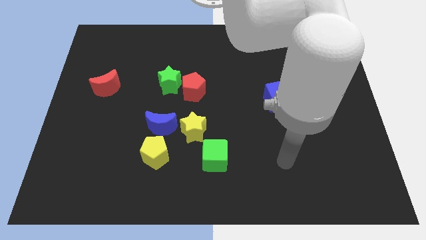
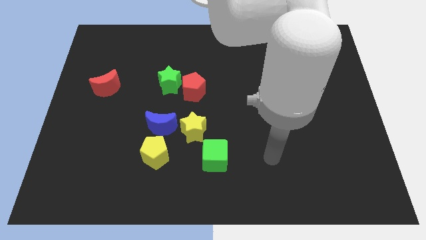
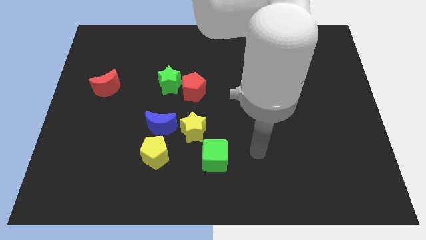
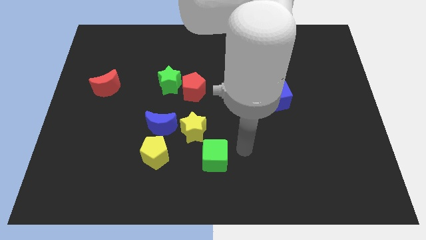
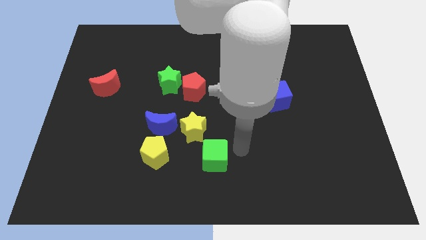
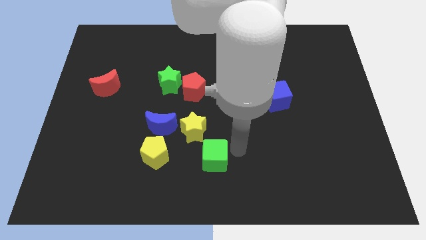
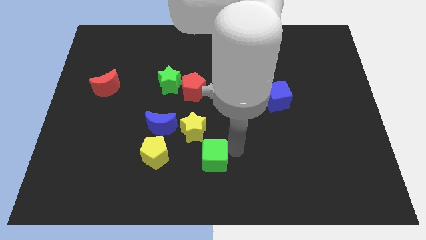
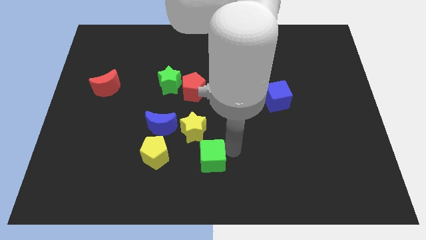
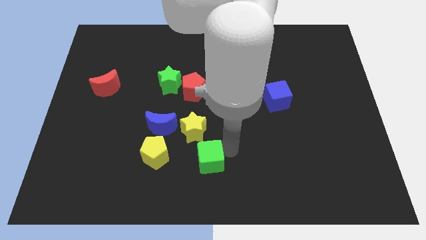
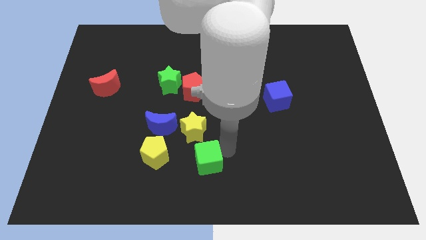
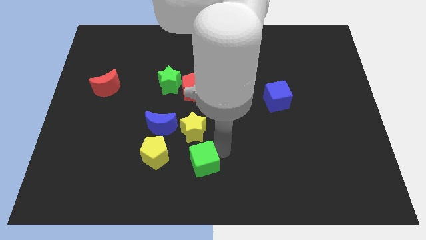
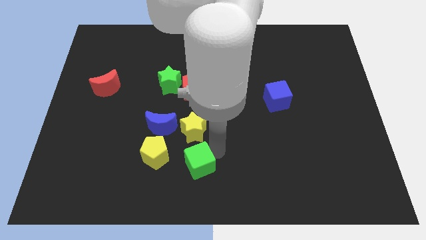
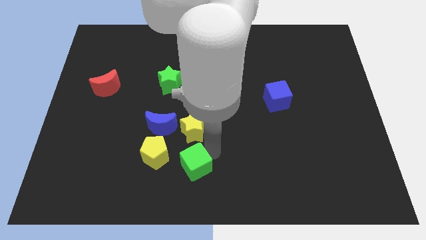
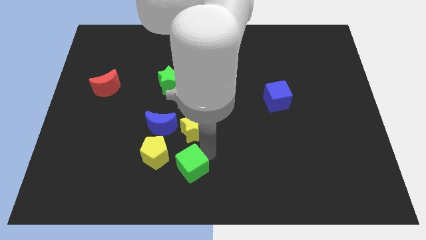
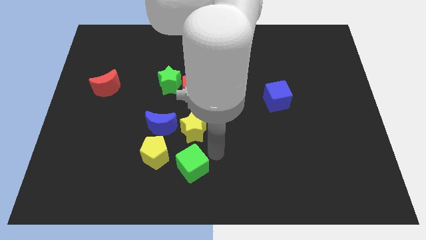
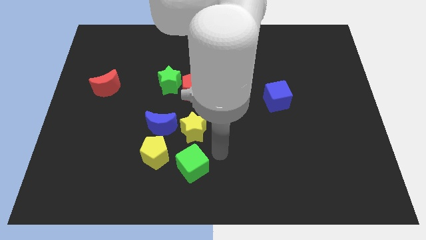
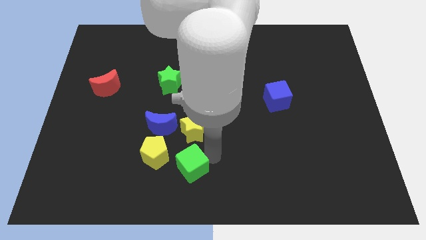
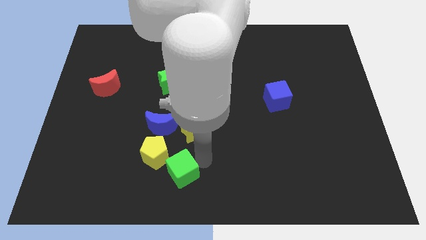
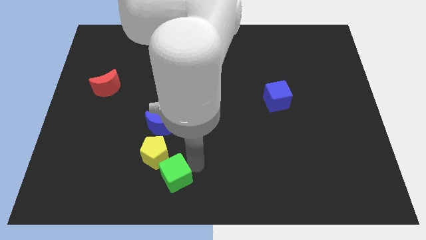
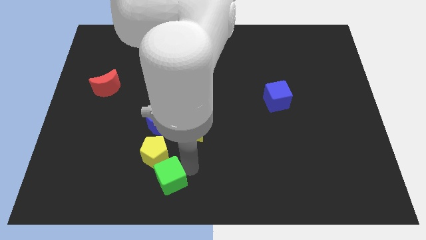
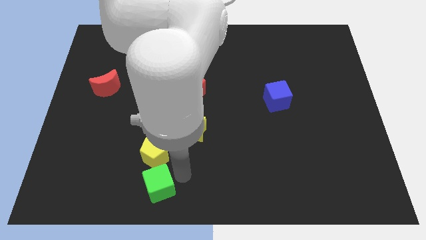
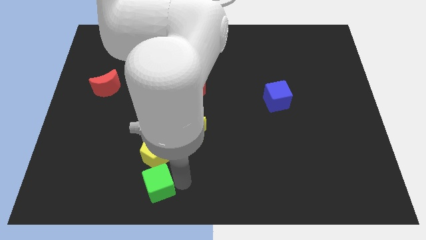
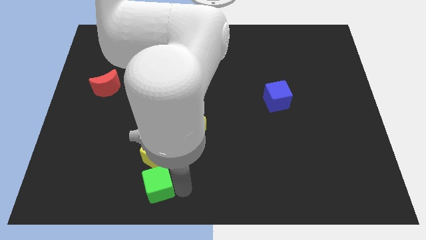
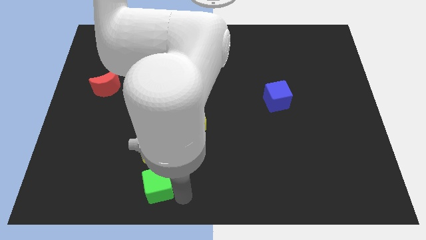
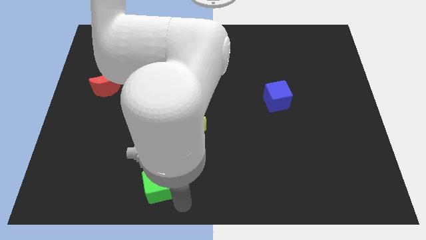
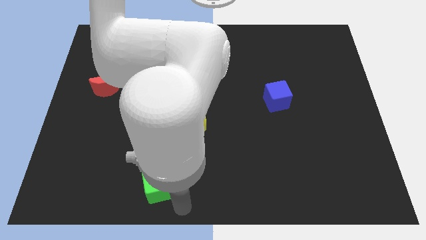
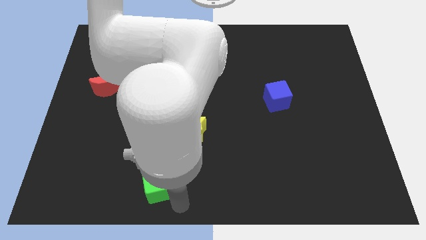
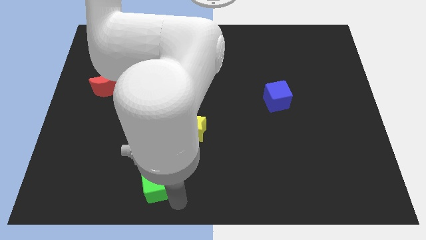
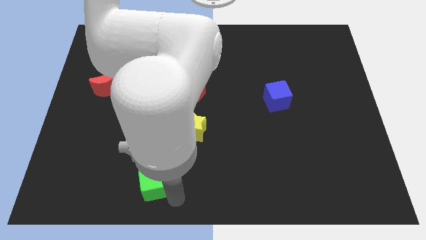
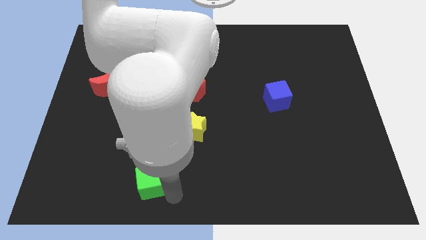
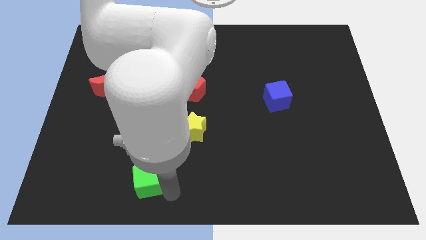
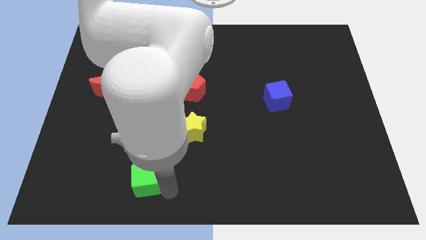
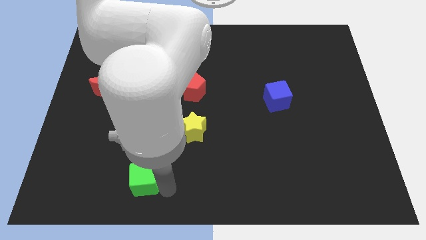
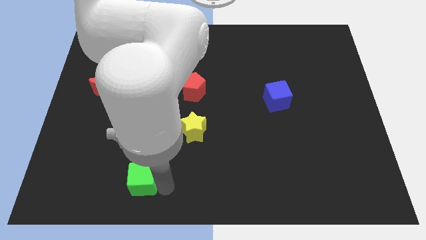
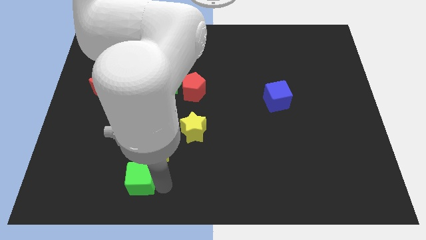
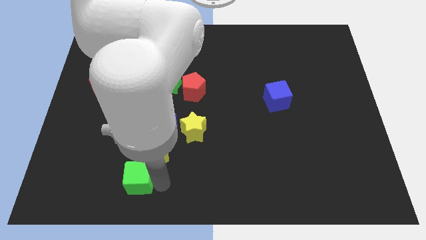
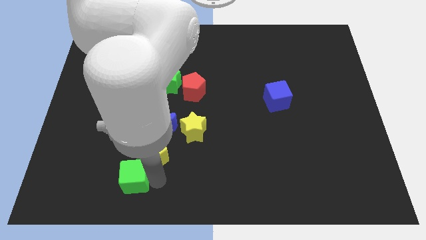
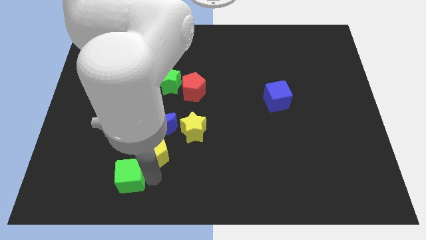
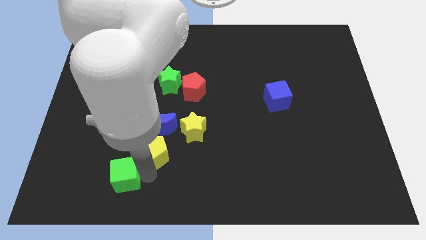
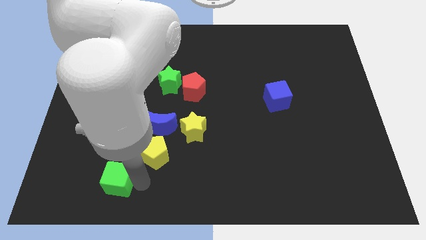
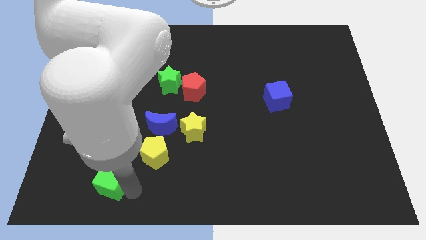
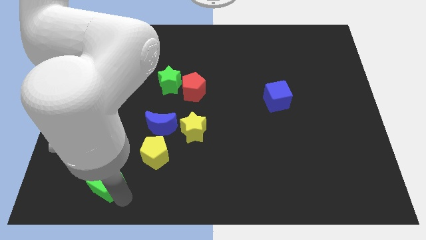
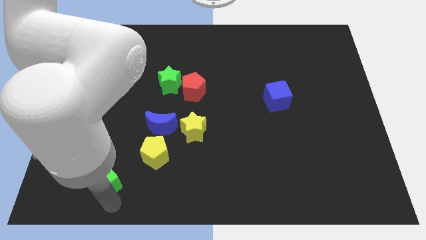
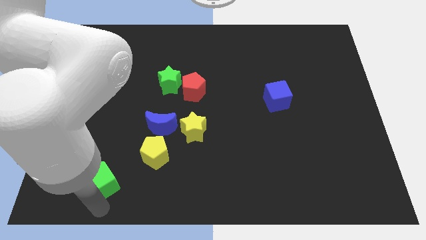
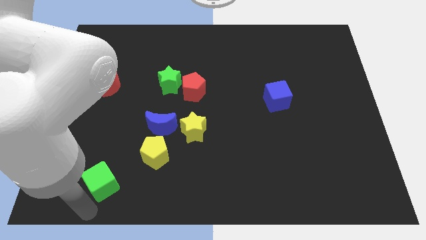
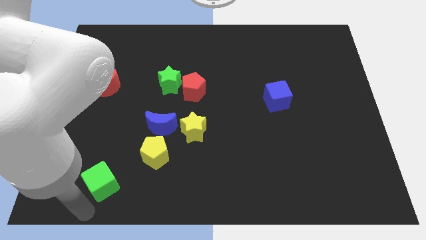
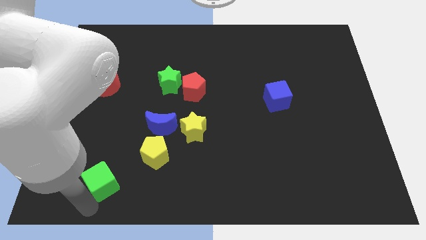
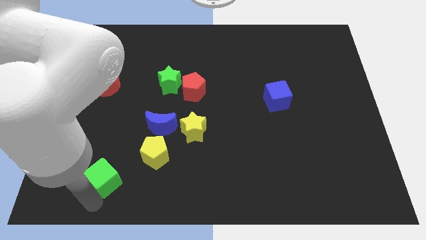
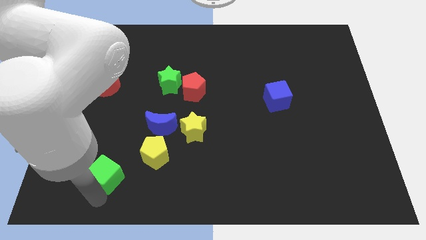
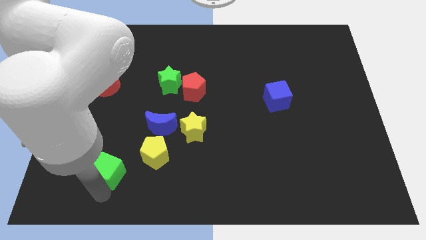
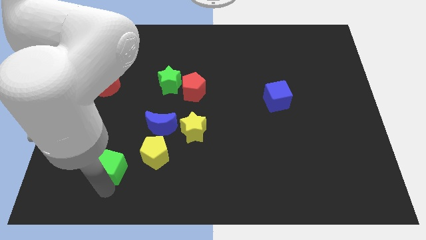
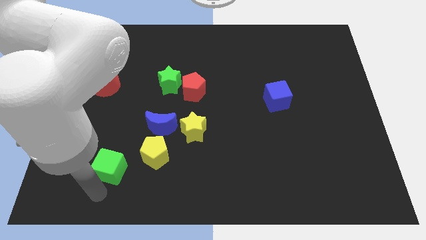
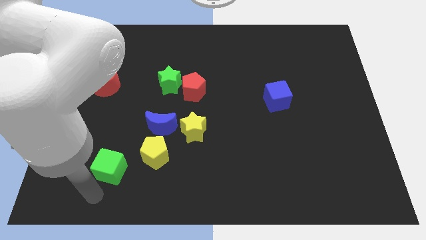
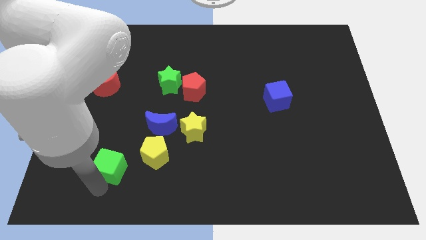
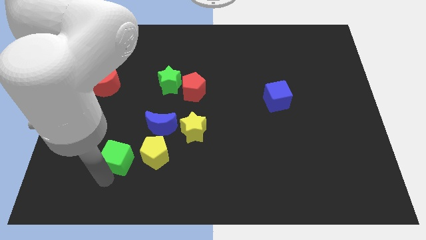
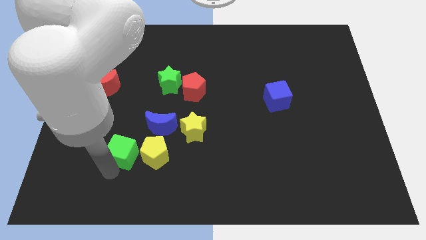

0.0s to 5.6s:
put the green cube diagonally up and to the left of the yellow pentagon

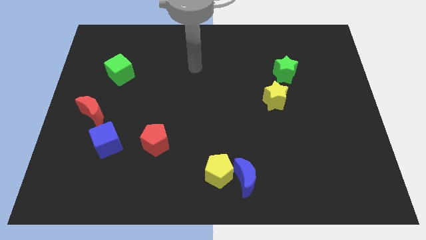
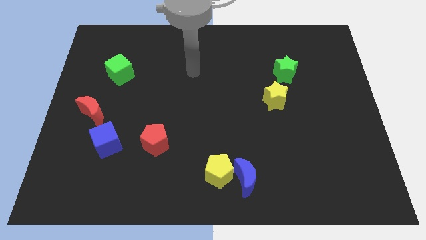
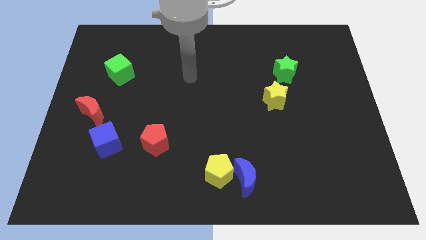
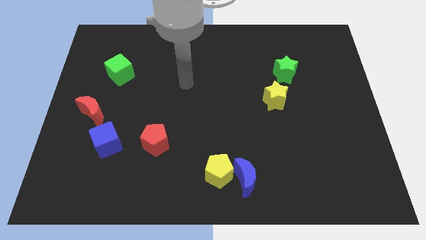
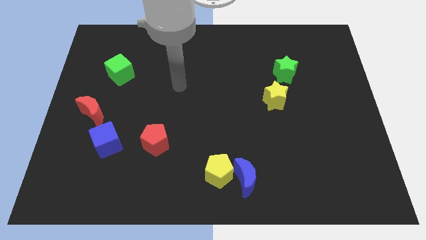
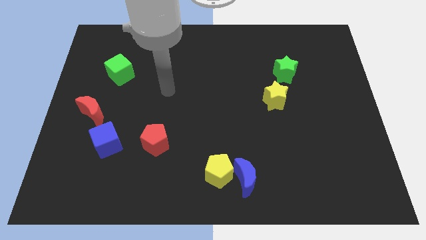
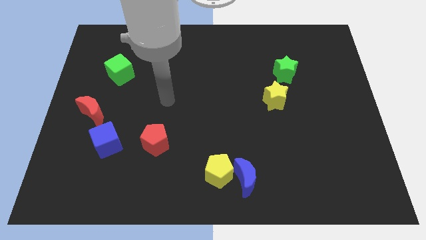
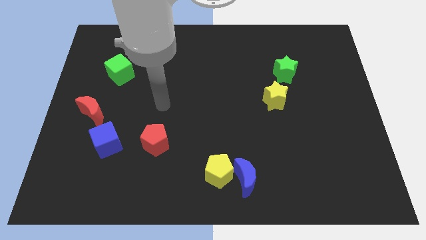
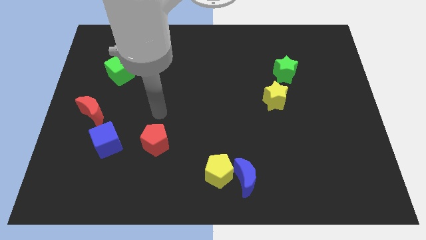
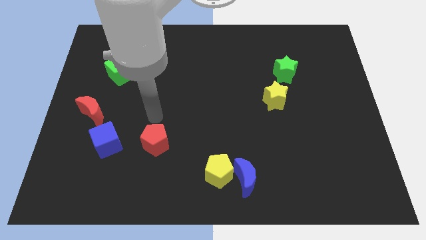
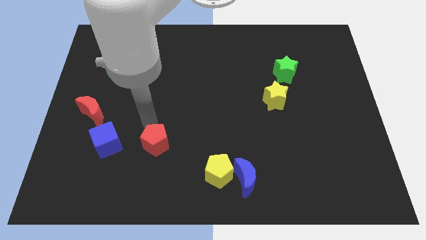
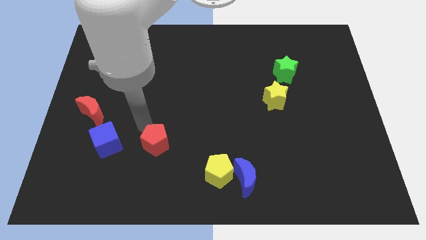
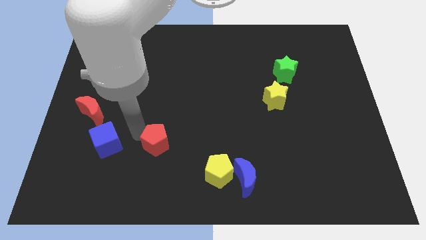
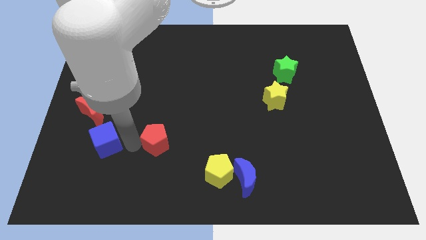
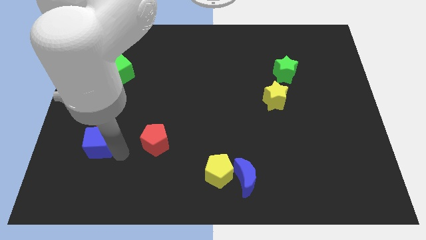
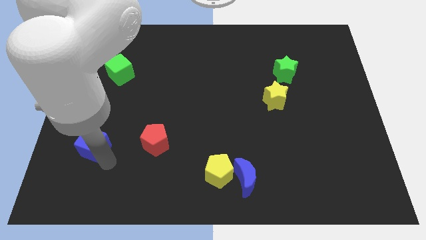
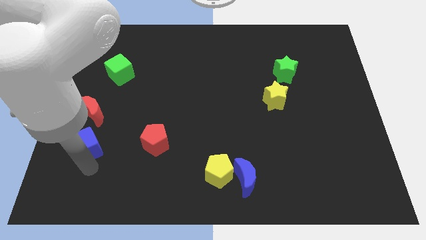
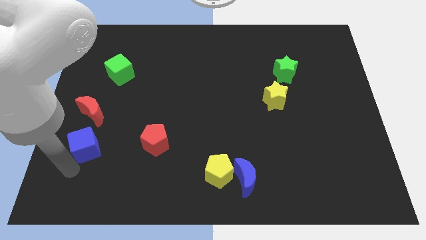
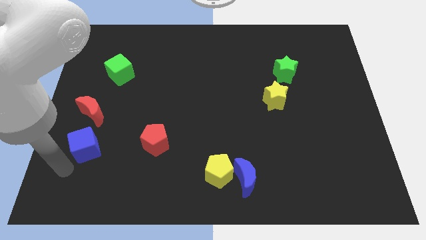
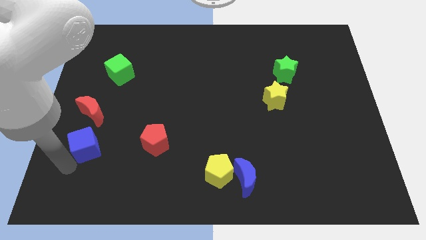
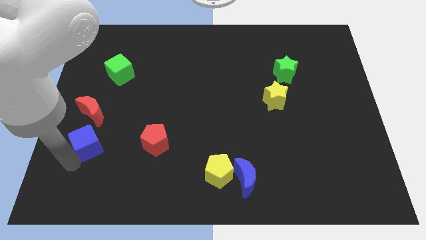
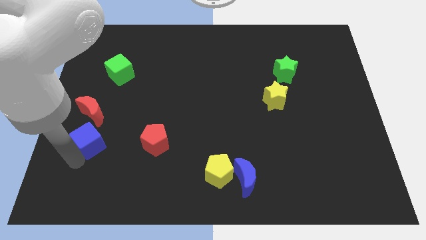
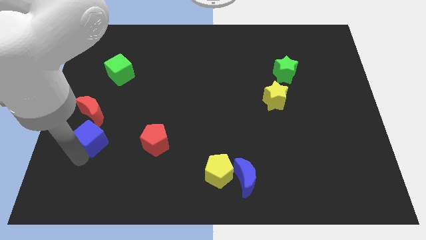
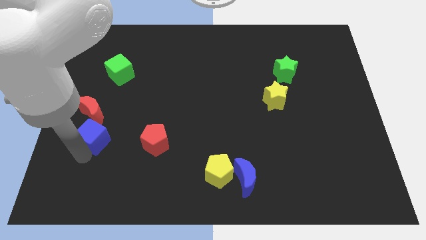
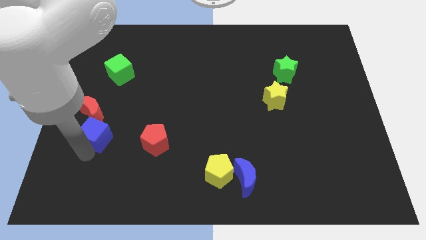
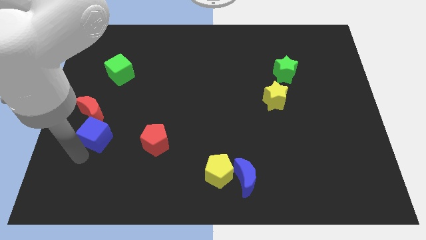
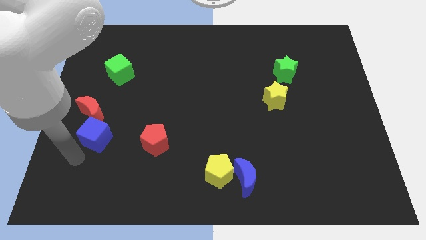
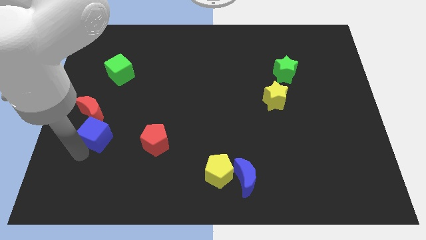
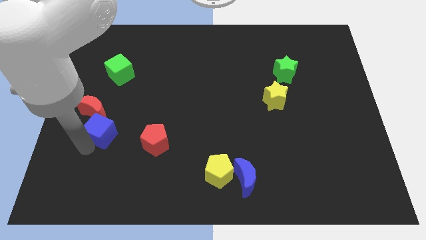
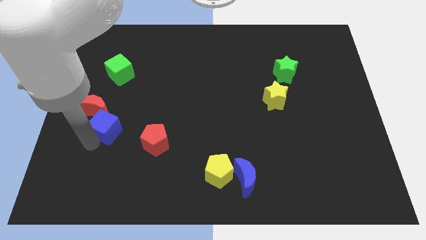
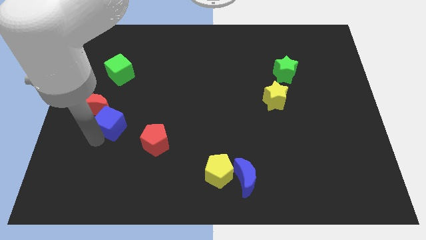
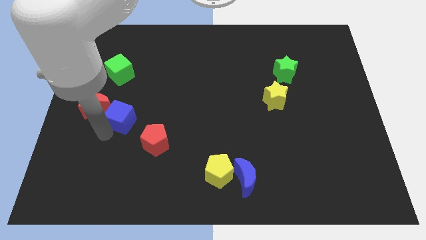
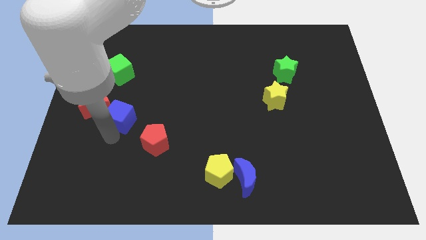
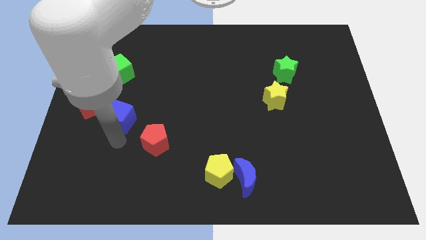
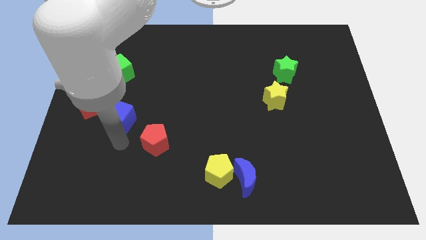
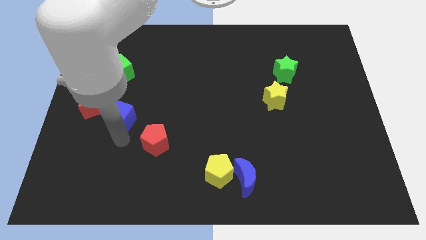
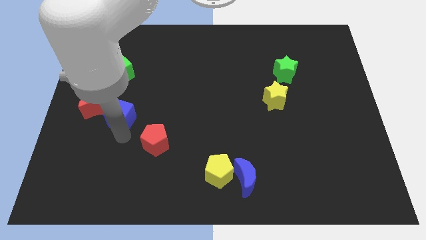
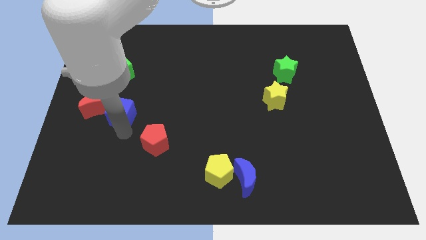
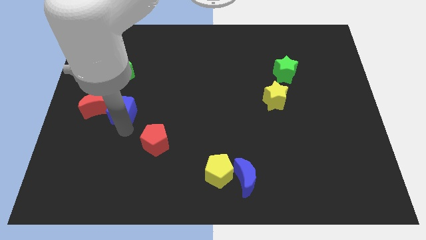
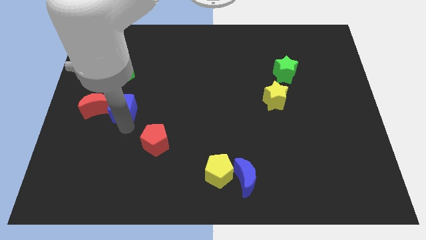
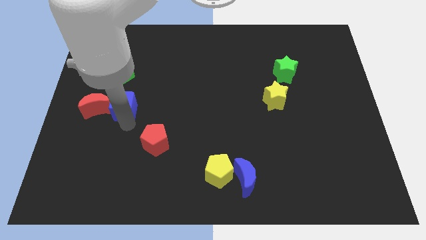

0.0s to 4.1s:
put the blue cube to the top right of the red moon
